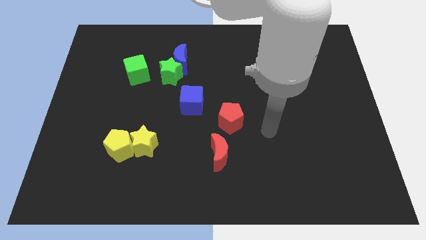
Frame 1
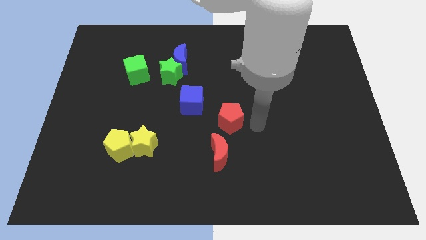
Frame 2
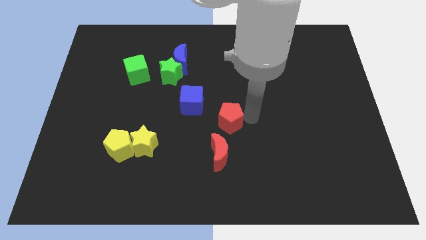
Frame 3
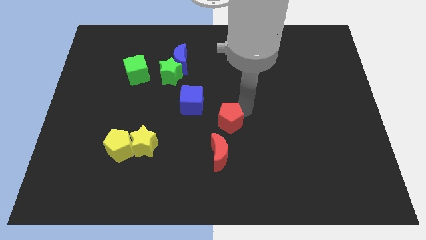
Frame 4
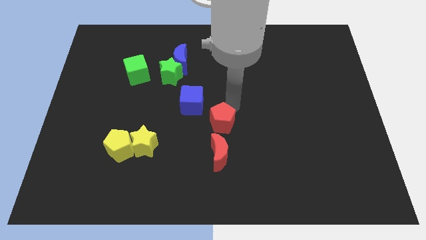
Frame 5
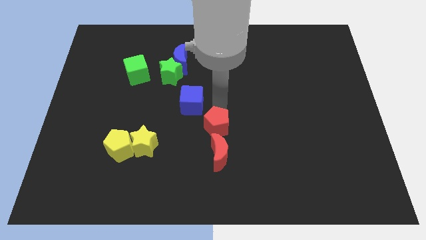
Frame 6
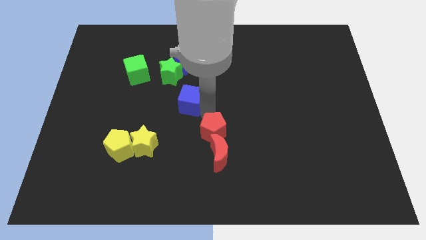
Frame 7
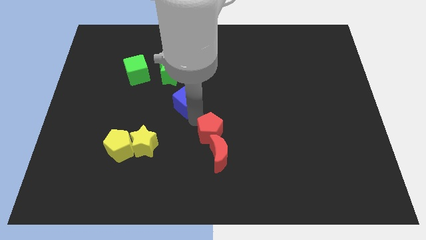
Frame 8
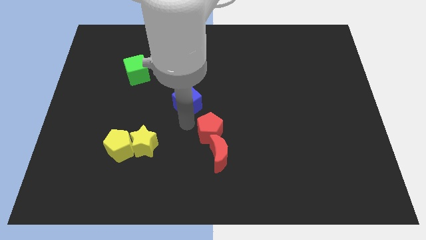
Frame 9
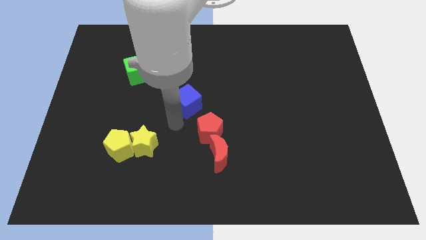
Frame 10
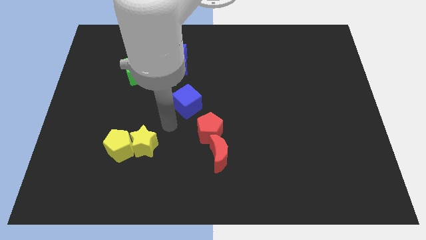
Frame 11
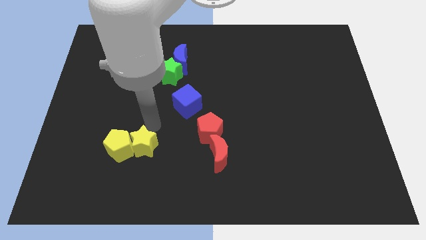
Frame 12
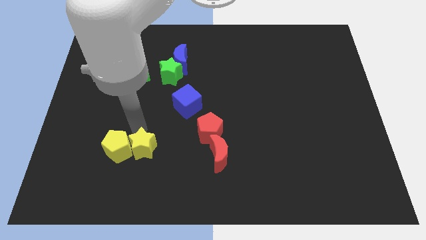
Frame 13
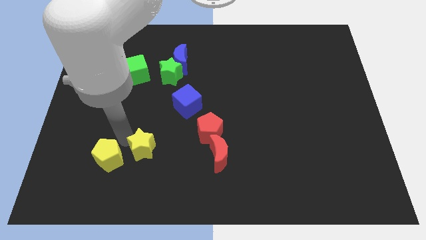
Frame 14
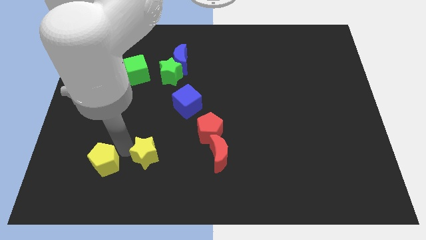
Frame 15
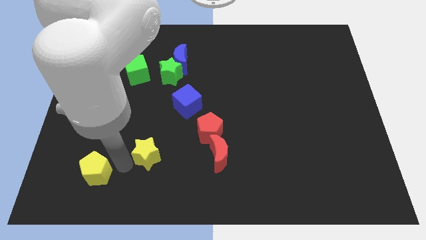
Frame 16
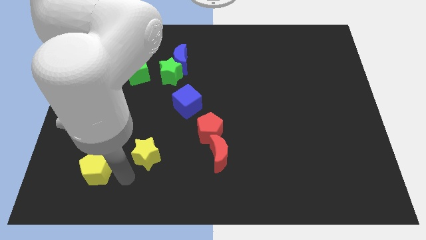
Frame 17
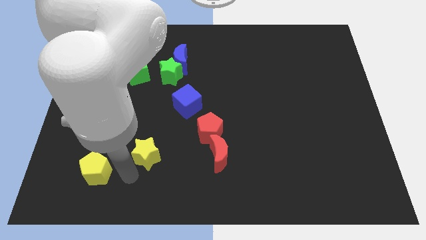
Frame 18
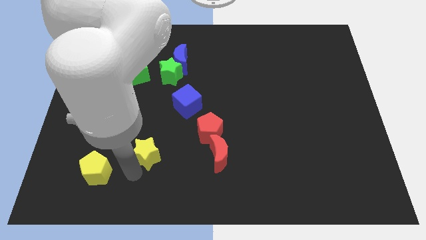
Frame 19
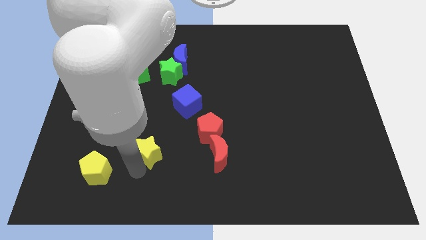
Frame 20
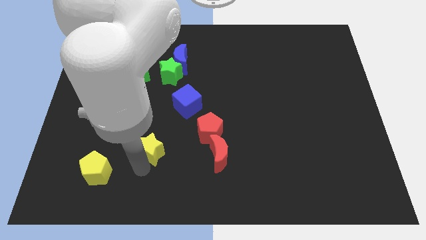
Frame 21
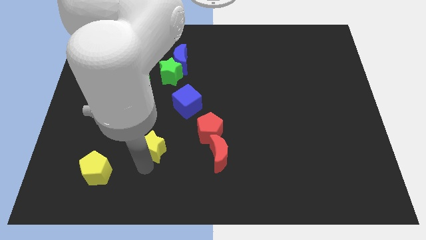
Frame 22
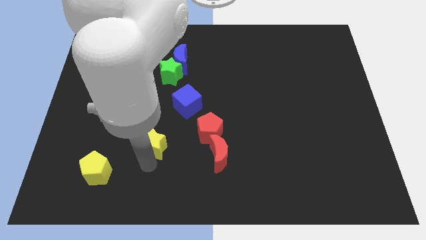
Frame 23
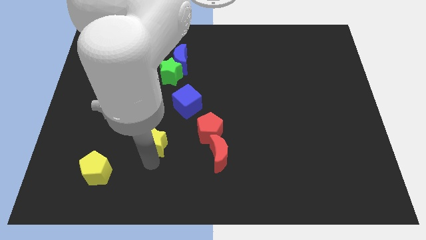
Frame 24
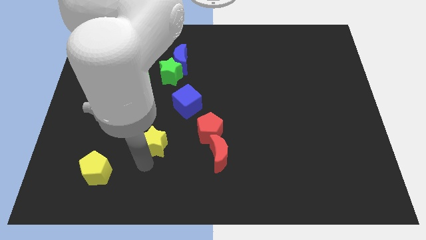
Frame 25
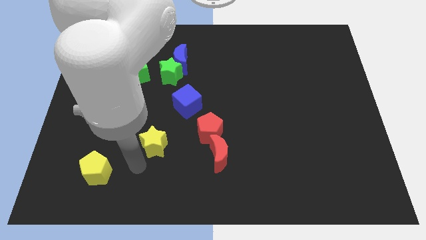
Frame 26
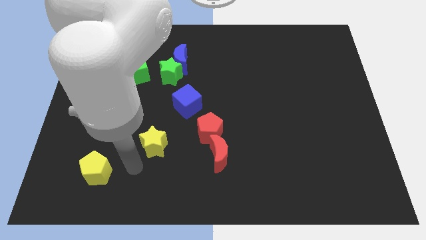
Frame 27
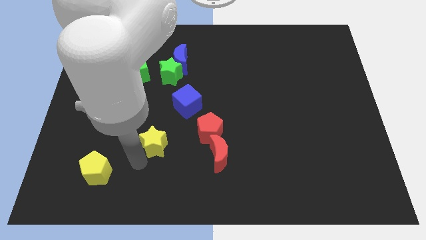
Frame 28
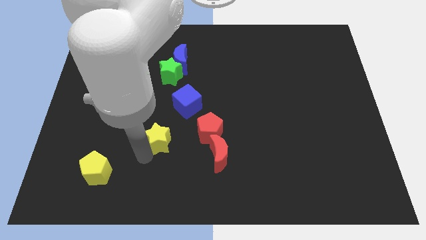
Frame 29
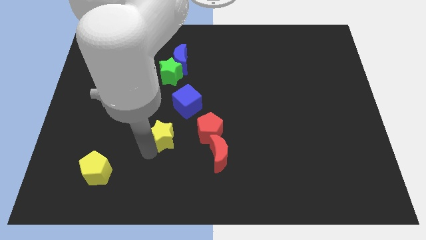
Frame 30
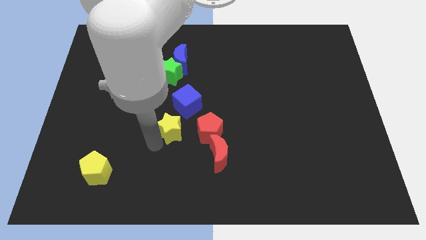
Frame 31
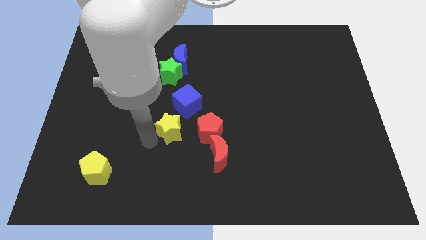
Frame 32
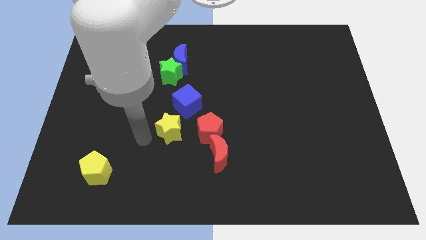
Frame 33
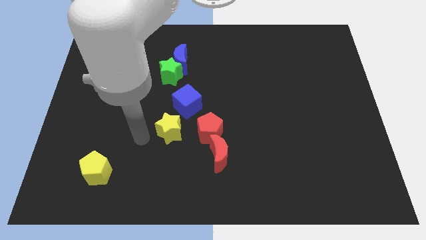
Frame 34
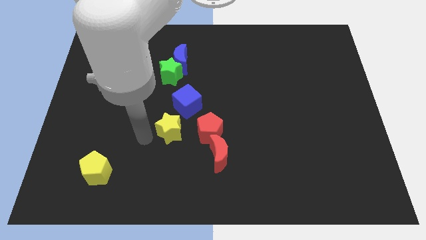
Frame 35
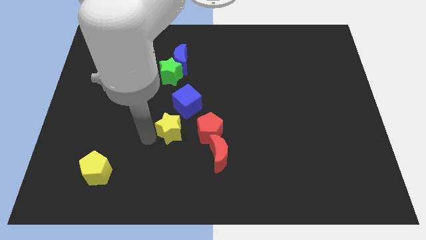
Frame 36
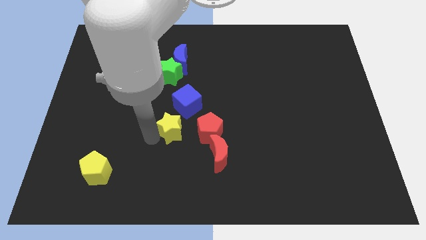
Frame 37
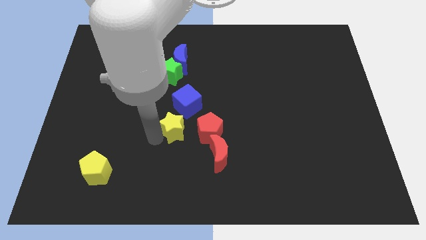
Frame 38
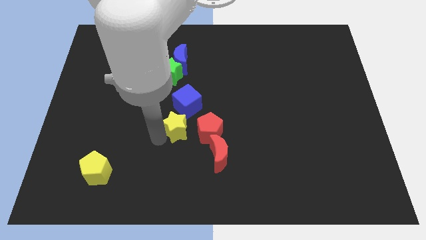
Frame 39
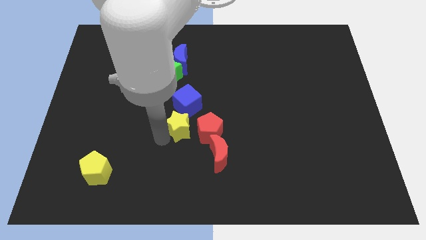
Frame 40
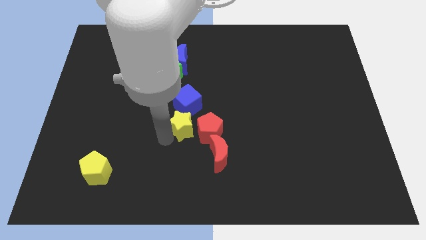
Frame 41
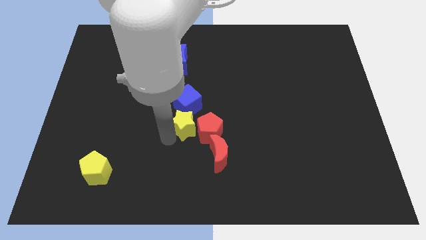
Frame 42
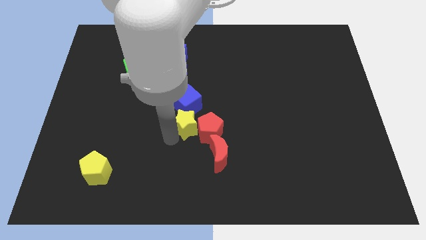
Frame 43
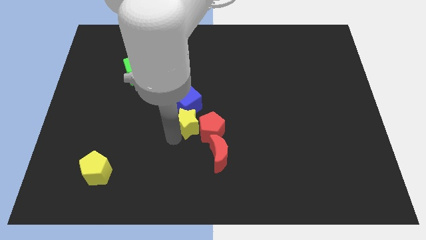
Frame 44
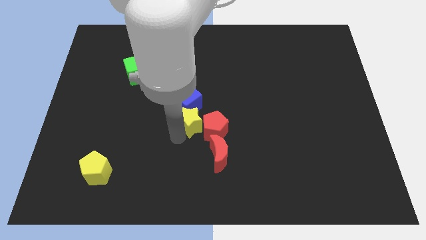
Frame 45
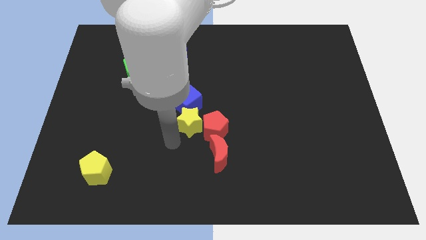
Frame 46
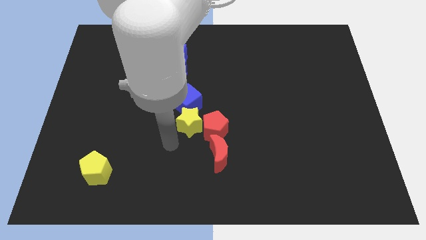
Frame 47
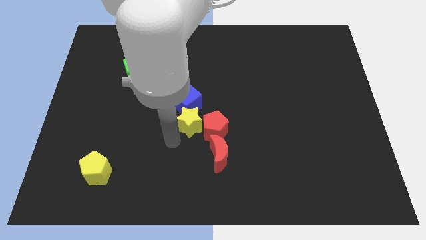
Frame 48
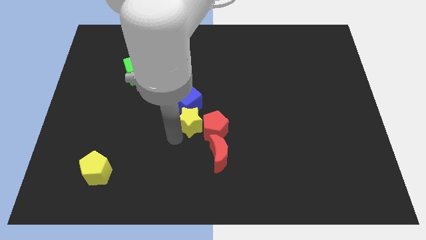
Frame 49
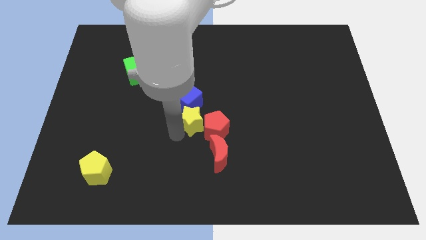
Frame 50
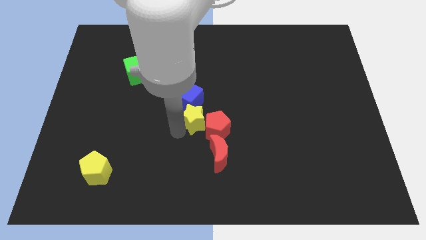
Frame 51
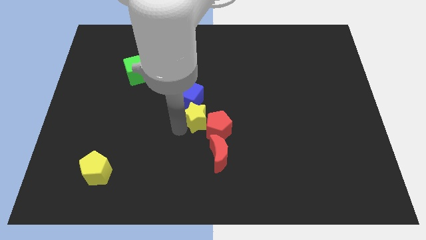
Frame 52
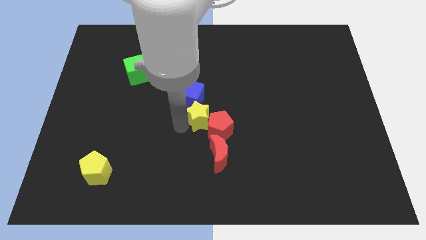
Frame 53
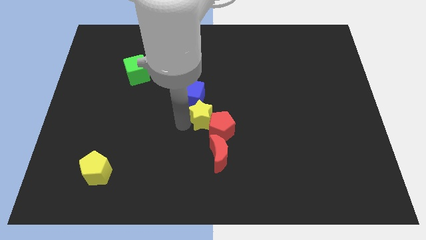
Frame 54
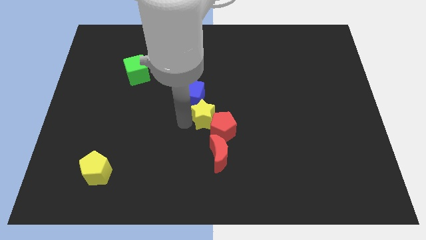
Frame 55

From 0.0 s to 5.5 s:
push the yellow star above the red pentagon

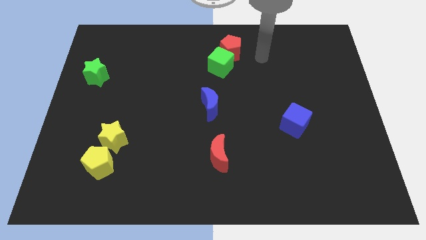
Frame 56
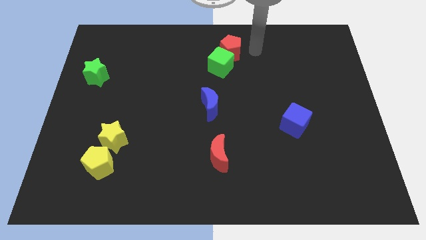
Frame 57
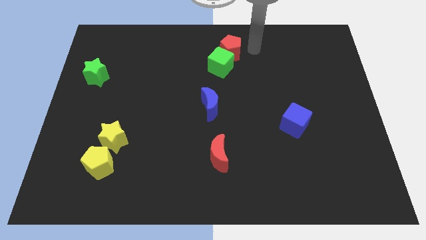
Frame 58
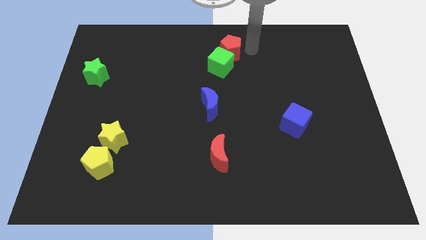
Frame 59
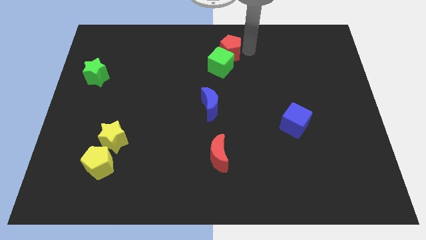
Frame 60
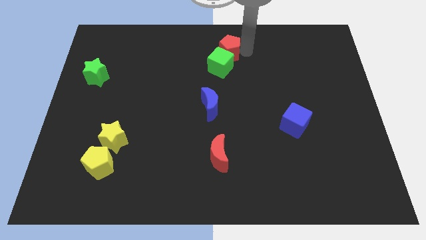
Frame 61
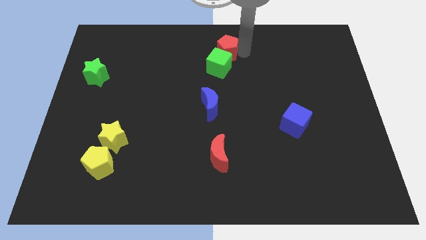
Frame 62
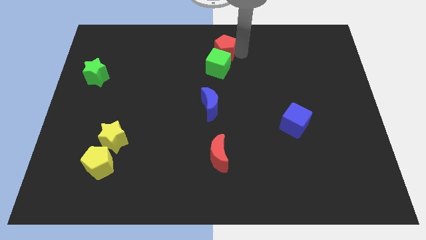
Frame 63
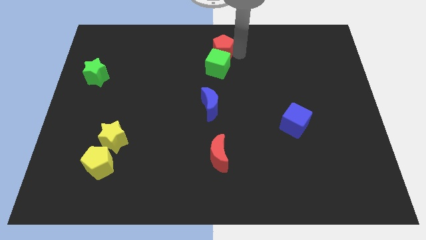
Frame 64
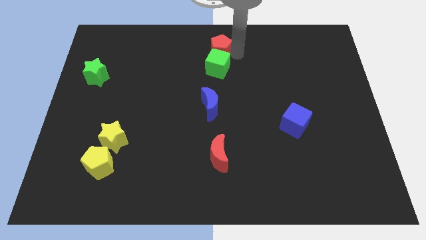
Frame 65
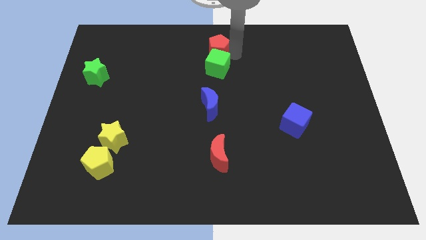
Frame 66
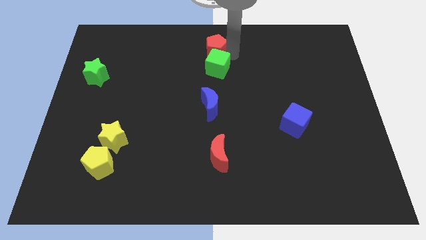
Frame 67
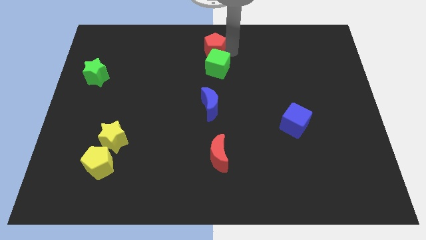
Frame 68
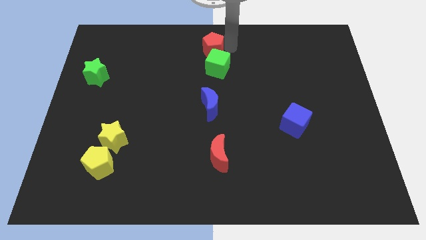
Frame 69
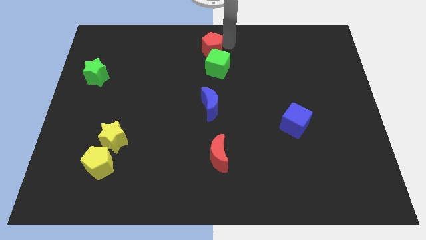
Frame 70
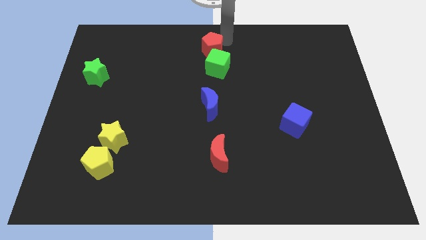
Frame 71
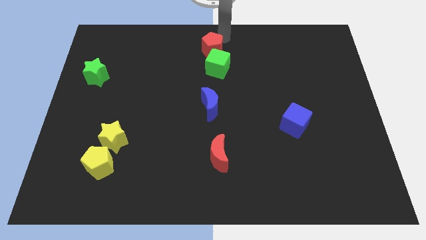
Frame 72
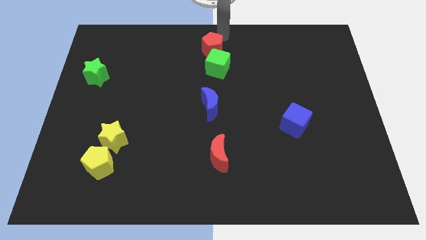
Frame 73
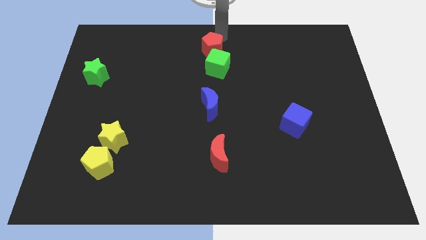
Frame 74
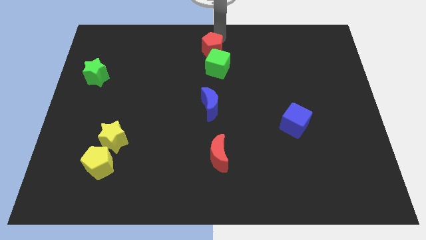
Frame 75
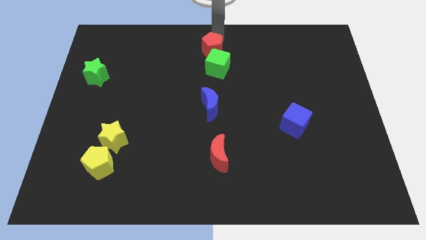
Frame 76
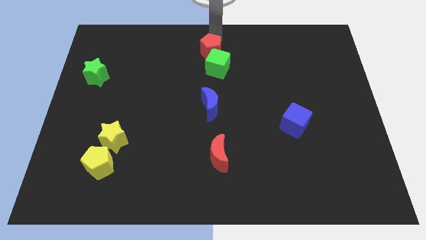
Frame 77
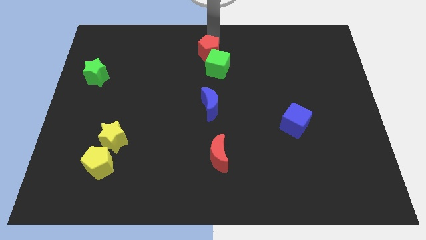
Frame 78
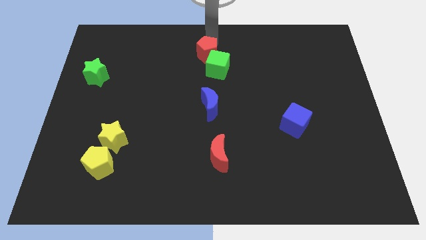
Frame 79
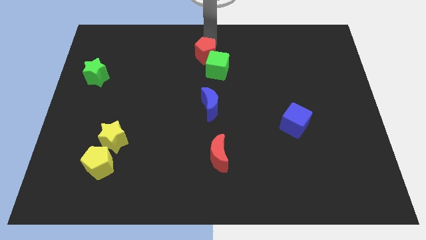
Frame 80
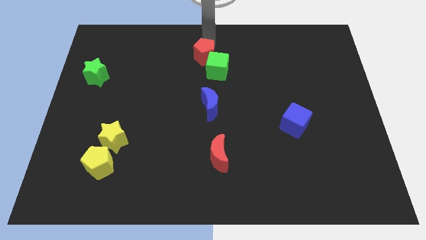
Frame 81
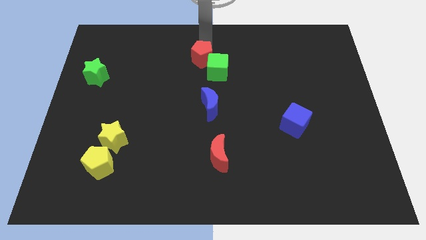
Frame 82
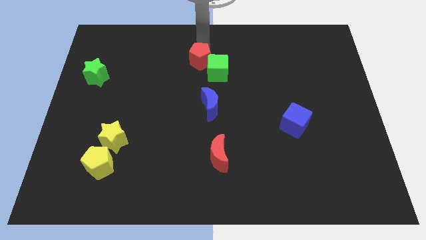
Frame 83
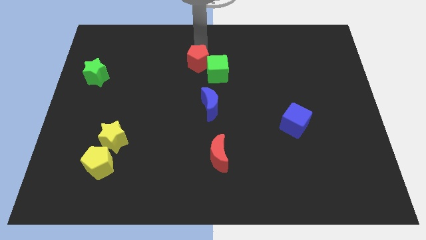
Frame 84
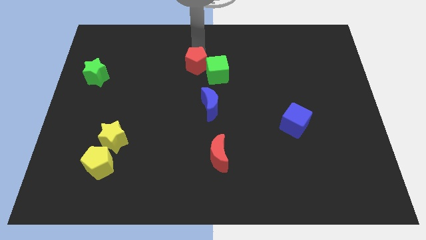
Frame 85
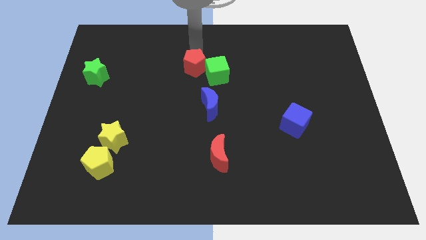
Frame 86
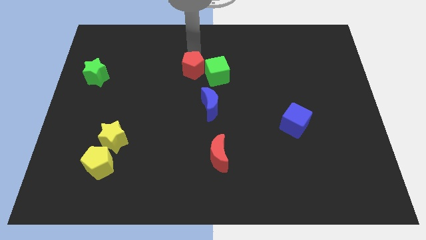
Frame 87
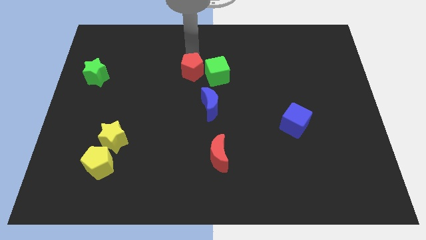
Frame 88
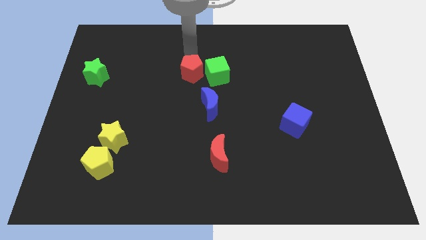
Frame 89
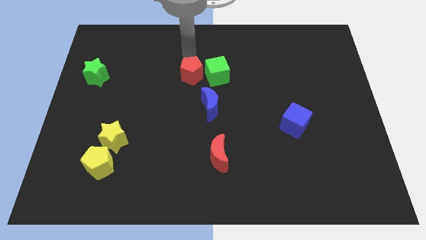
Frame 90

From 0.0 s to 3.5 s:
push the red pentagon to the bottom left of the green cube
